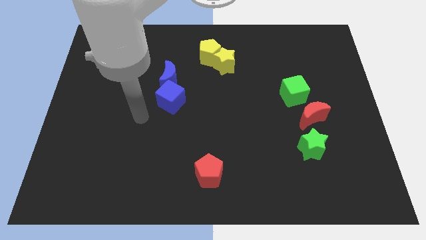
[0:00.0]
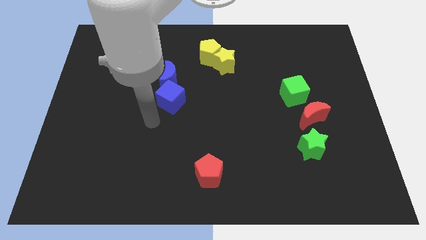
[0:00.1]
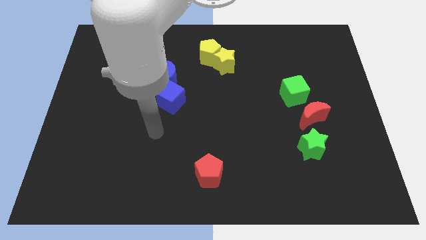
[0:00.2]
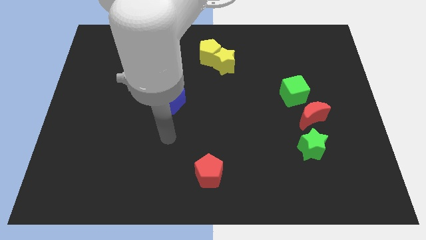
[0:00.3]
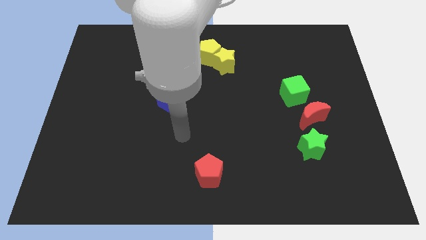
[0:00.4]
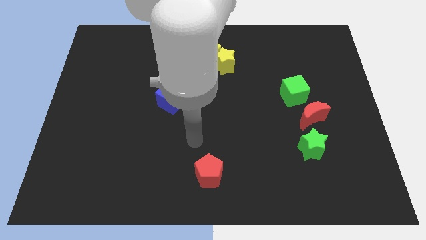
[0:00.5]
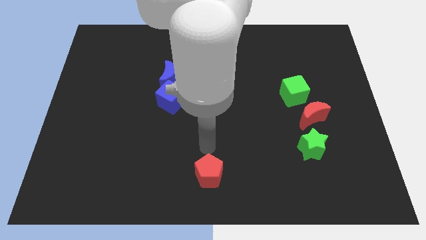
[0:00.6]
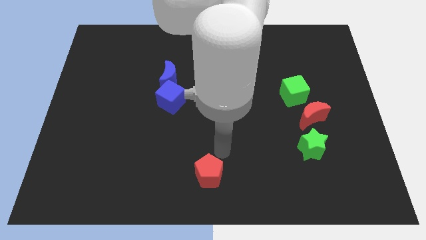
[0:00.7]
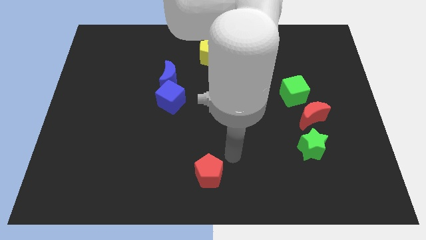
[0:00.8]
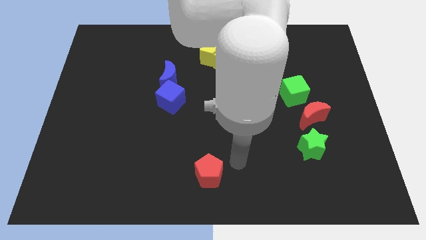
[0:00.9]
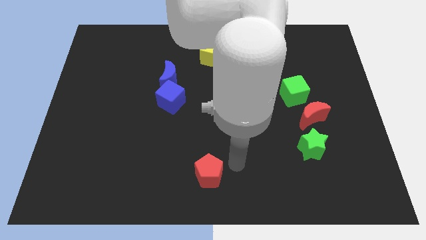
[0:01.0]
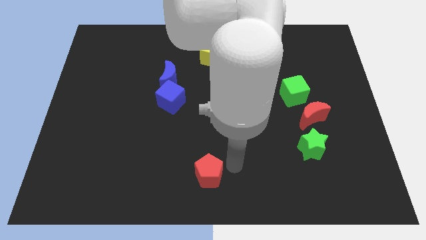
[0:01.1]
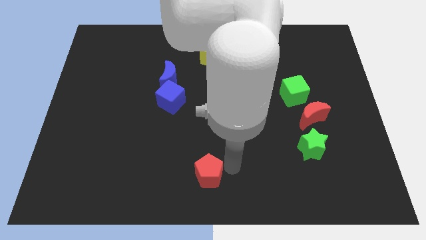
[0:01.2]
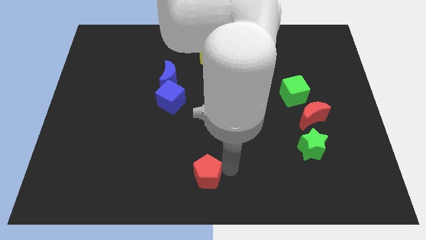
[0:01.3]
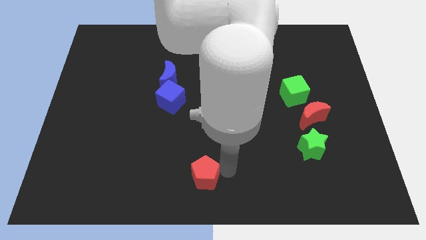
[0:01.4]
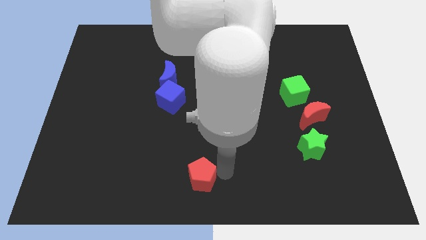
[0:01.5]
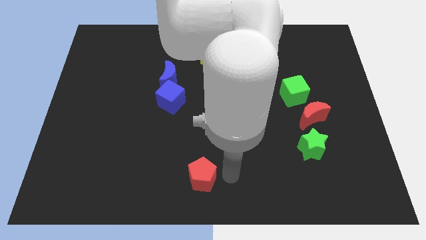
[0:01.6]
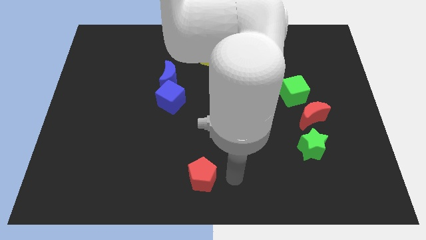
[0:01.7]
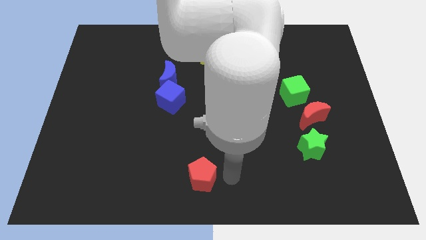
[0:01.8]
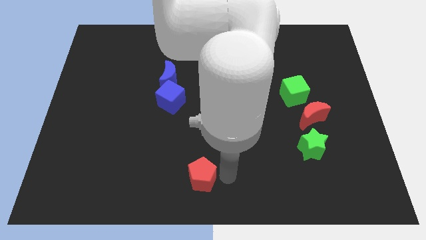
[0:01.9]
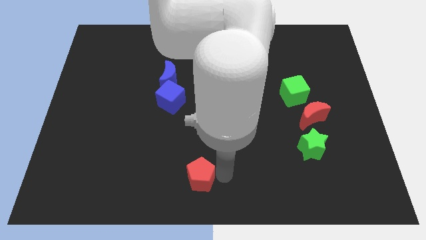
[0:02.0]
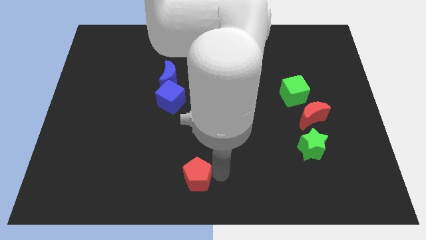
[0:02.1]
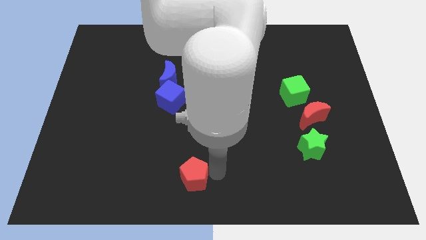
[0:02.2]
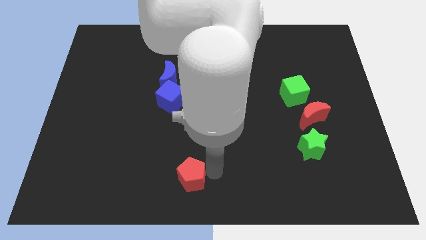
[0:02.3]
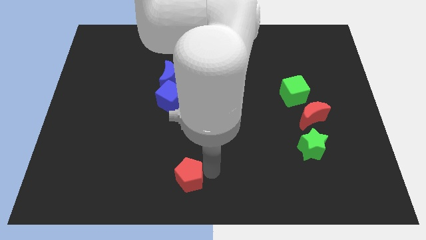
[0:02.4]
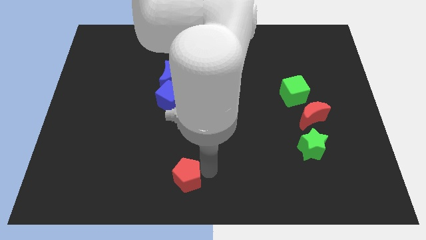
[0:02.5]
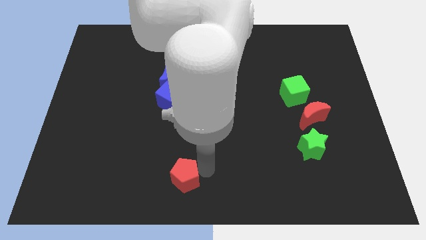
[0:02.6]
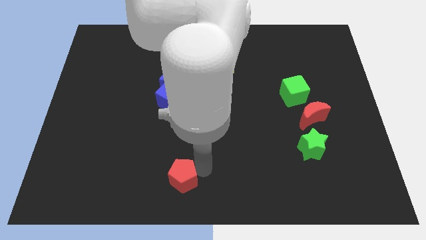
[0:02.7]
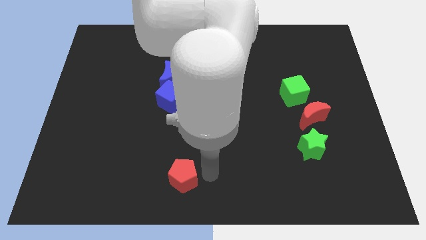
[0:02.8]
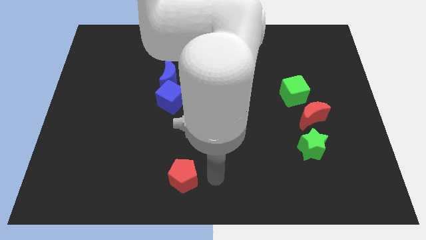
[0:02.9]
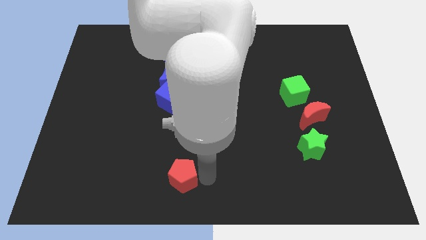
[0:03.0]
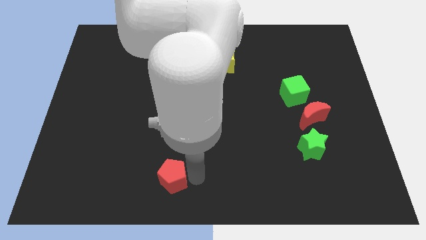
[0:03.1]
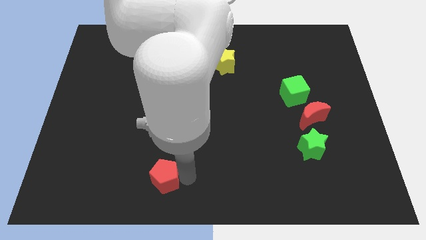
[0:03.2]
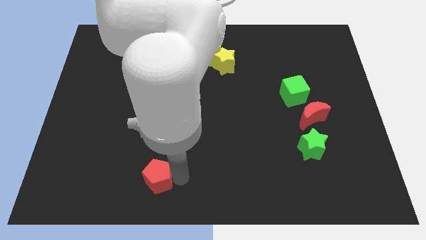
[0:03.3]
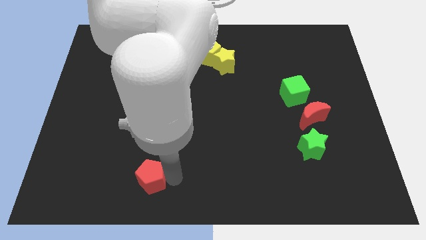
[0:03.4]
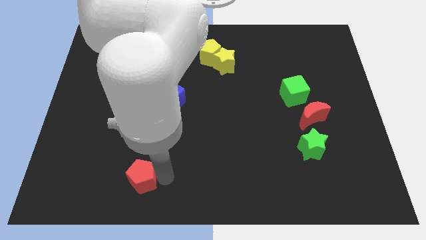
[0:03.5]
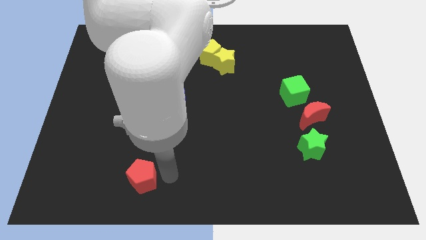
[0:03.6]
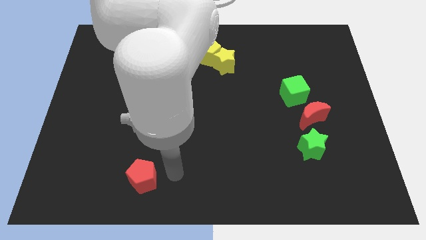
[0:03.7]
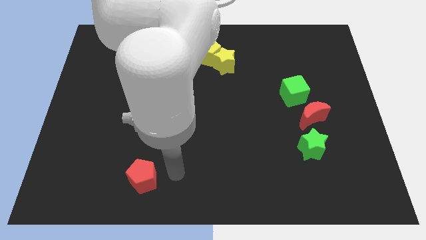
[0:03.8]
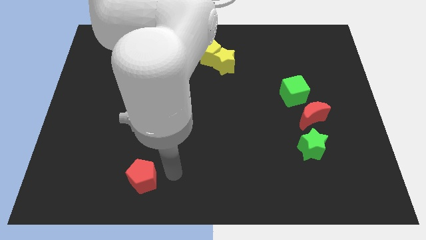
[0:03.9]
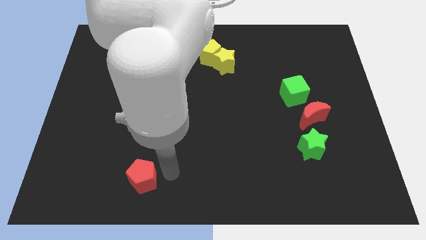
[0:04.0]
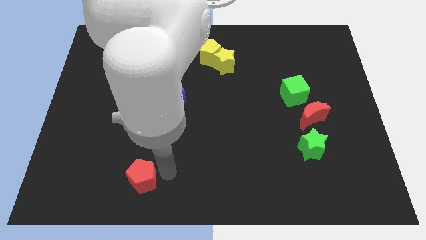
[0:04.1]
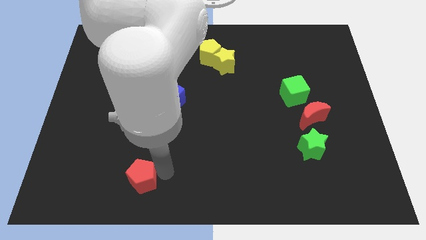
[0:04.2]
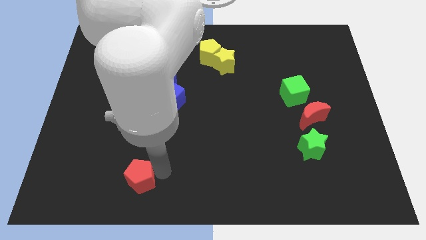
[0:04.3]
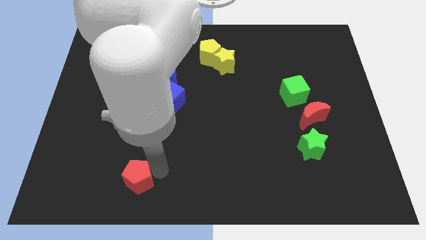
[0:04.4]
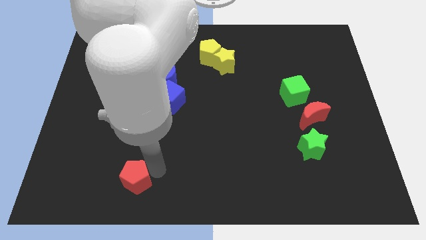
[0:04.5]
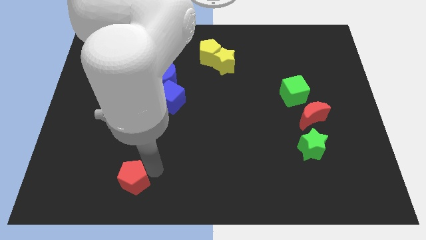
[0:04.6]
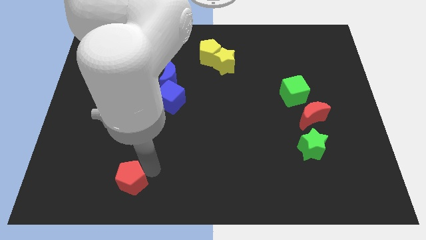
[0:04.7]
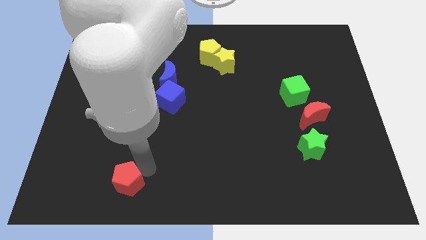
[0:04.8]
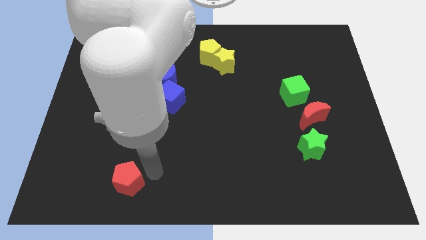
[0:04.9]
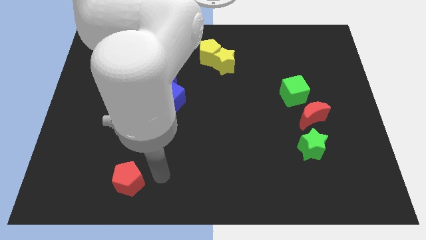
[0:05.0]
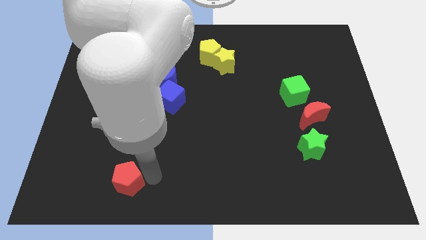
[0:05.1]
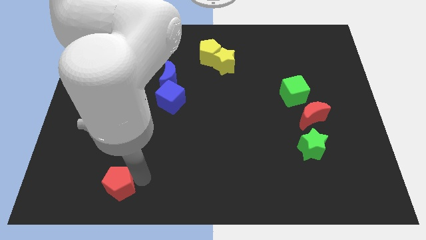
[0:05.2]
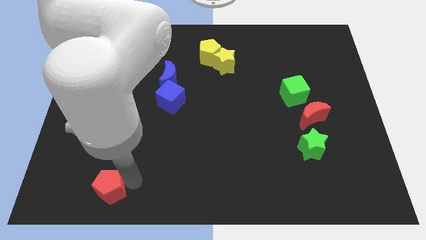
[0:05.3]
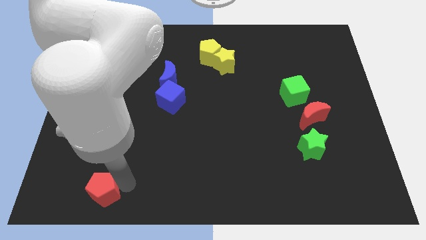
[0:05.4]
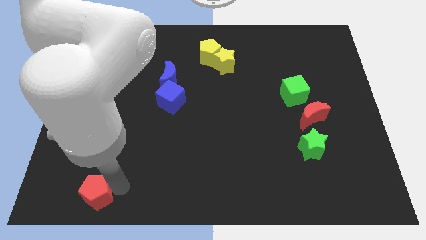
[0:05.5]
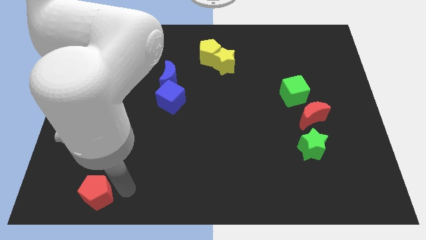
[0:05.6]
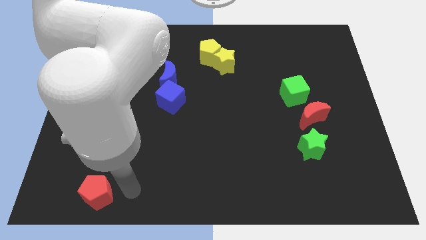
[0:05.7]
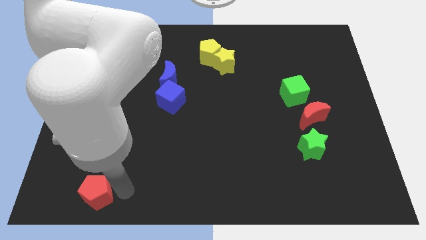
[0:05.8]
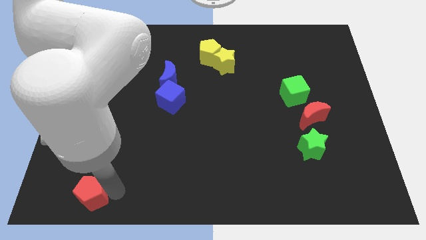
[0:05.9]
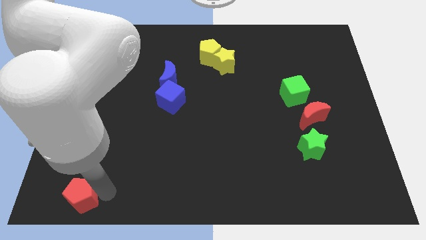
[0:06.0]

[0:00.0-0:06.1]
move the red pentagon to the lower left corner
